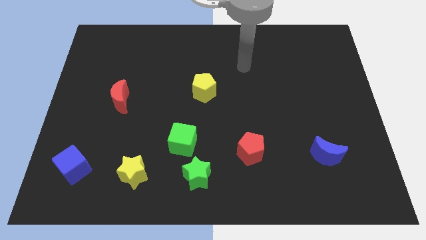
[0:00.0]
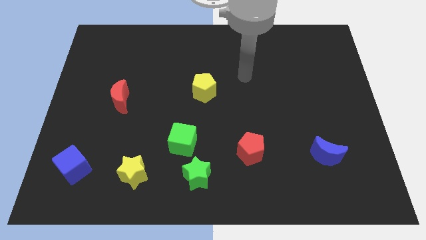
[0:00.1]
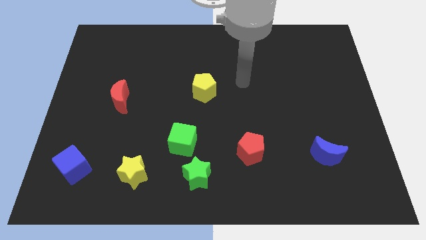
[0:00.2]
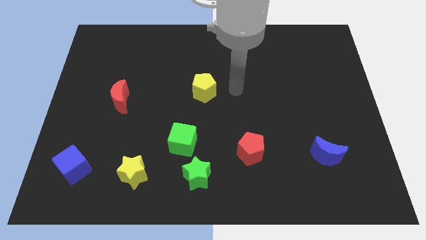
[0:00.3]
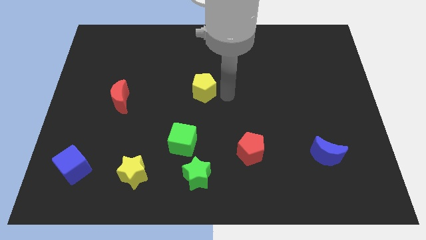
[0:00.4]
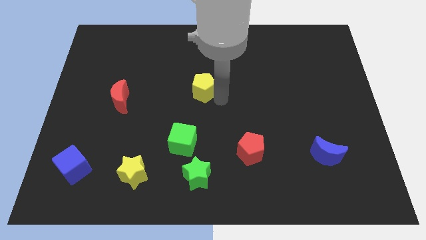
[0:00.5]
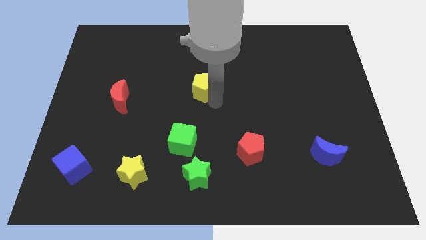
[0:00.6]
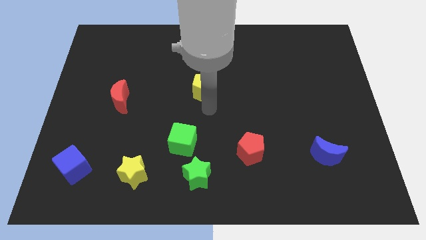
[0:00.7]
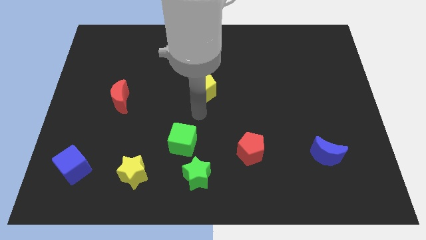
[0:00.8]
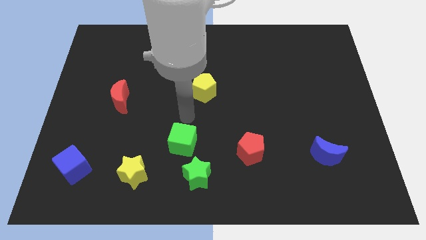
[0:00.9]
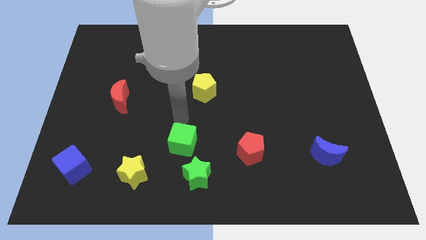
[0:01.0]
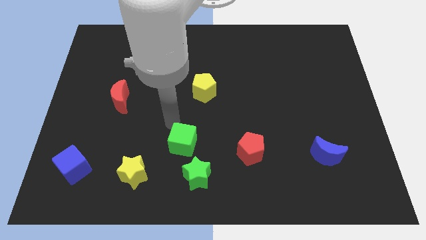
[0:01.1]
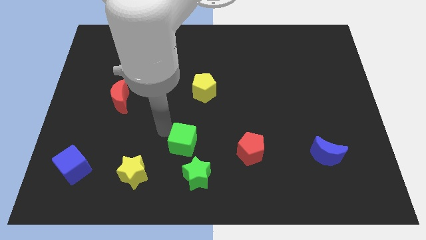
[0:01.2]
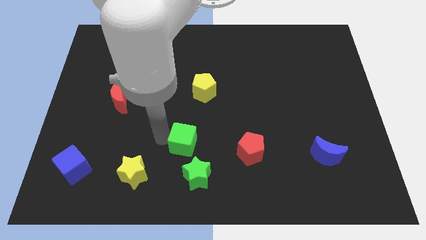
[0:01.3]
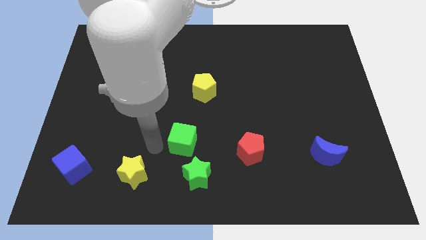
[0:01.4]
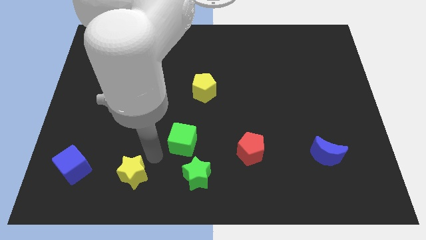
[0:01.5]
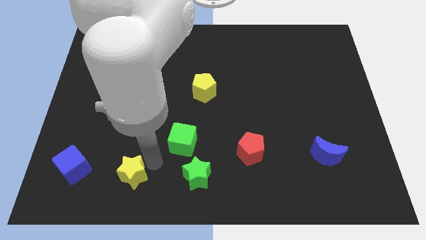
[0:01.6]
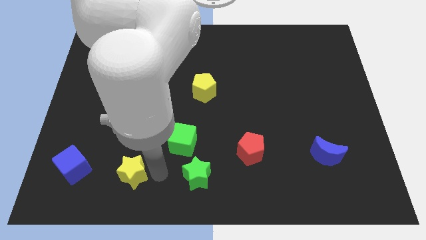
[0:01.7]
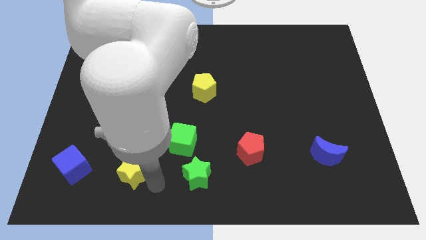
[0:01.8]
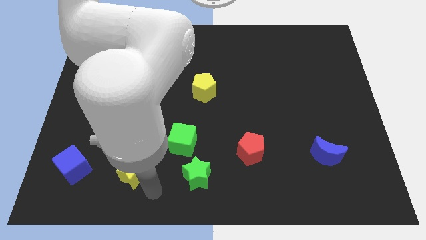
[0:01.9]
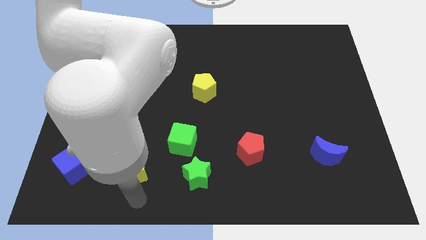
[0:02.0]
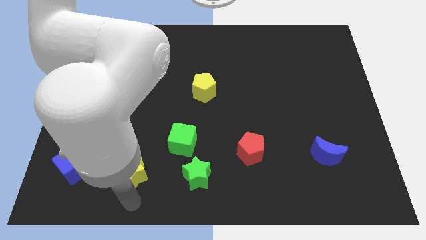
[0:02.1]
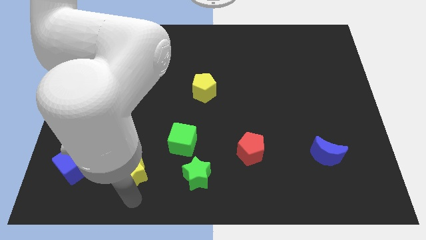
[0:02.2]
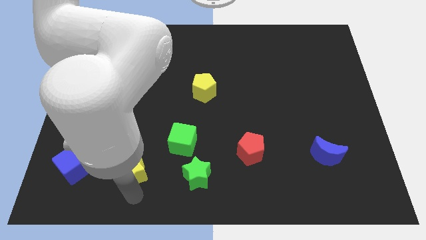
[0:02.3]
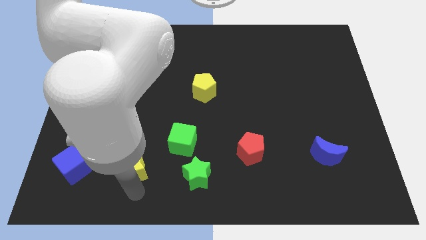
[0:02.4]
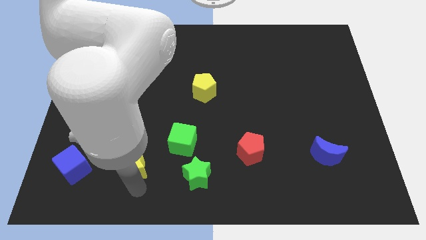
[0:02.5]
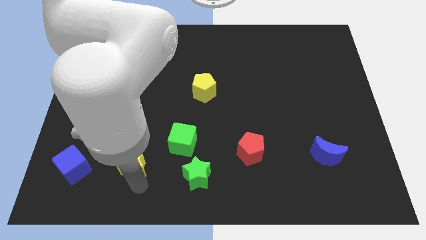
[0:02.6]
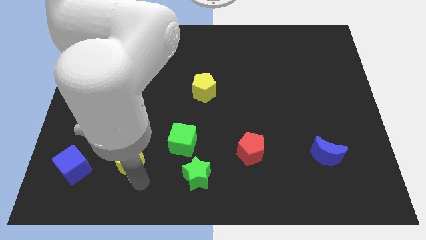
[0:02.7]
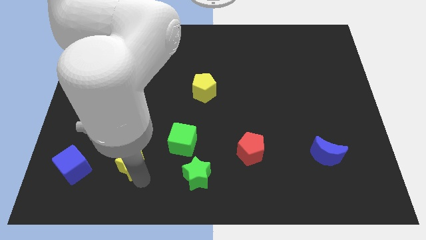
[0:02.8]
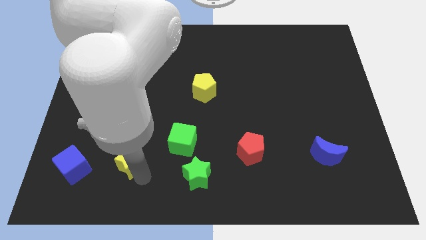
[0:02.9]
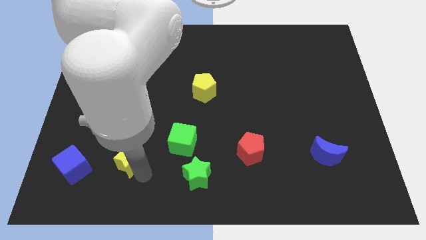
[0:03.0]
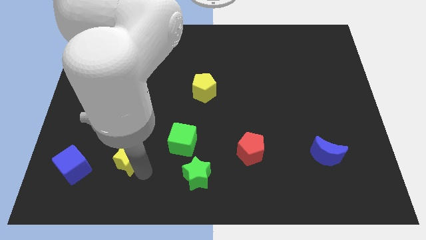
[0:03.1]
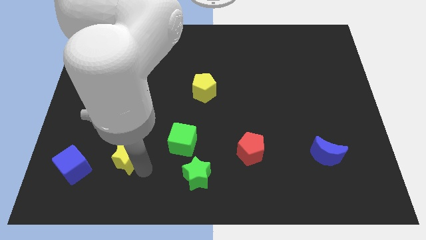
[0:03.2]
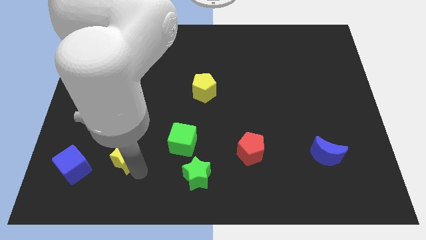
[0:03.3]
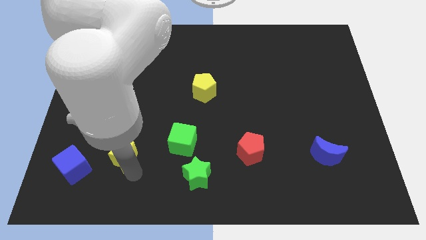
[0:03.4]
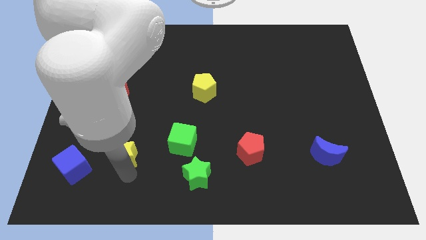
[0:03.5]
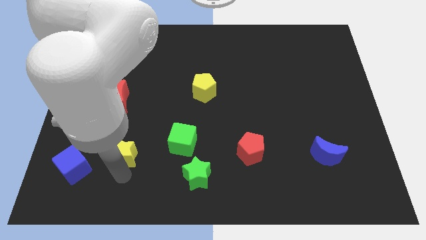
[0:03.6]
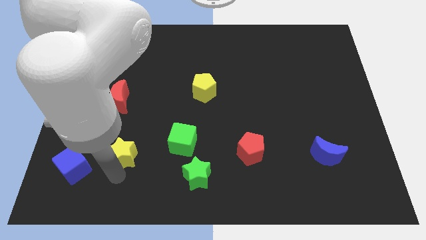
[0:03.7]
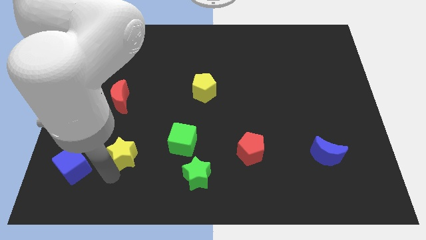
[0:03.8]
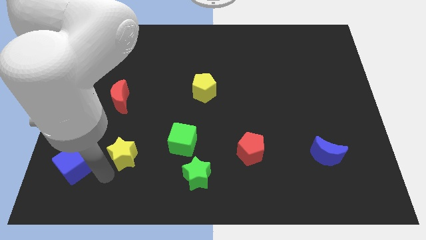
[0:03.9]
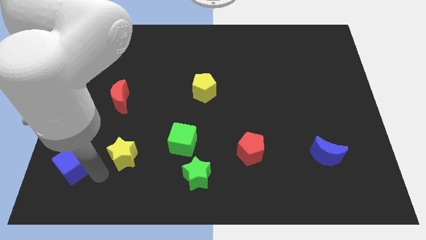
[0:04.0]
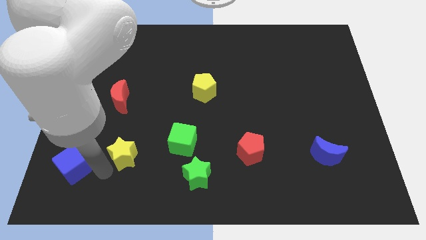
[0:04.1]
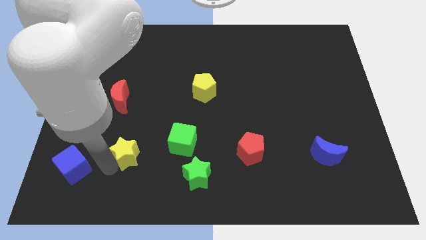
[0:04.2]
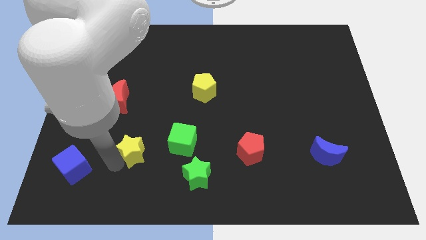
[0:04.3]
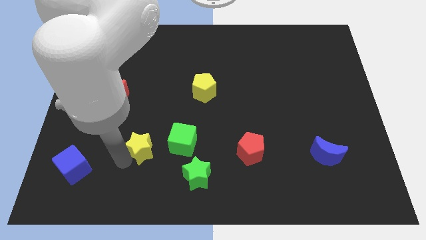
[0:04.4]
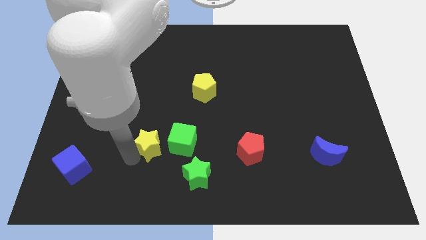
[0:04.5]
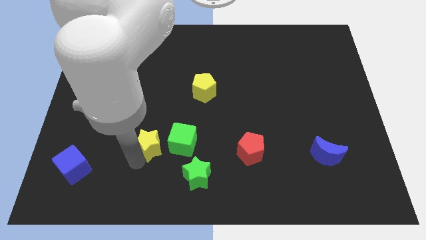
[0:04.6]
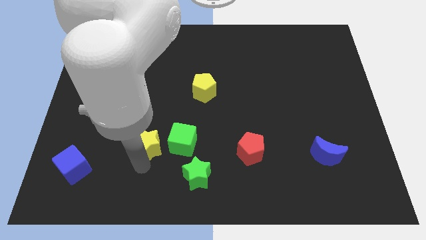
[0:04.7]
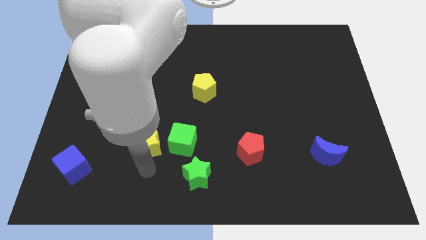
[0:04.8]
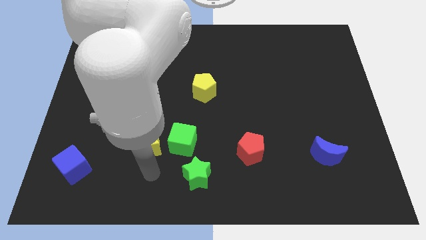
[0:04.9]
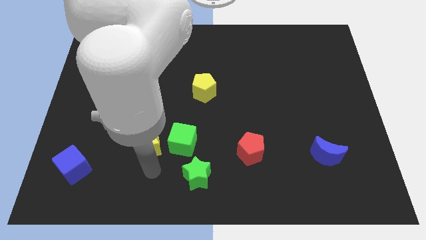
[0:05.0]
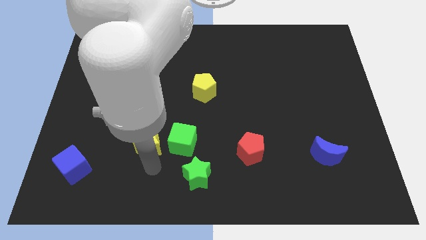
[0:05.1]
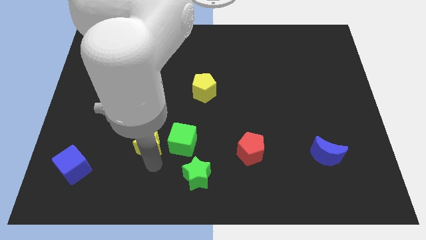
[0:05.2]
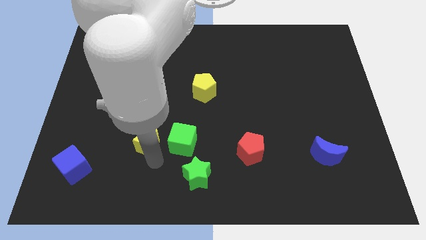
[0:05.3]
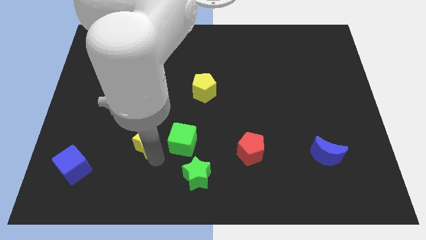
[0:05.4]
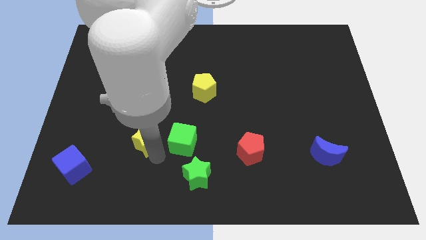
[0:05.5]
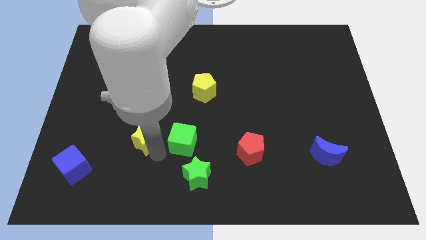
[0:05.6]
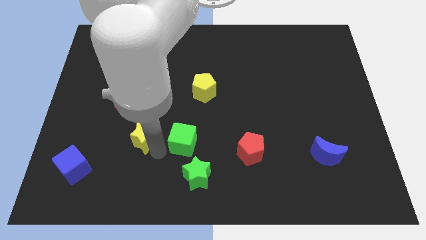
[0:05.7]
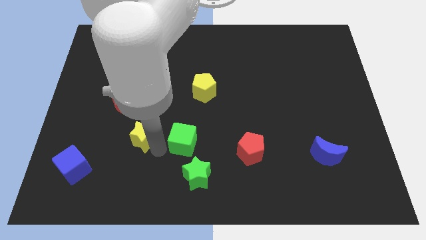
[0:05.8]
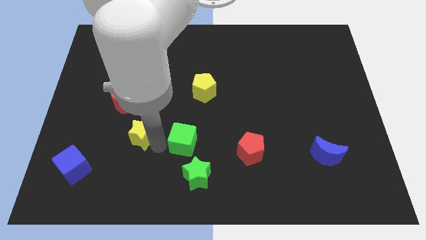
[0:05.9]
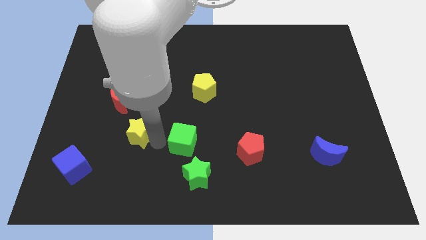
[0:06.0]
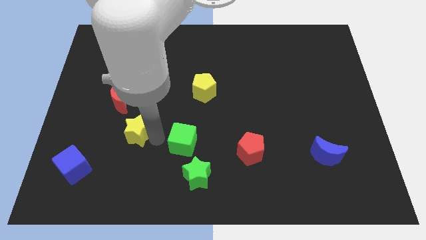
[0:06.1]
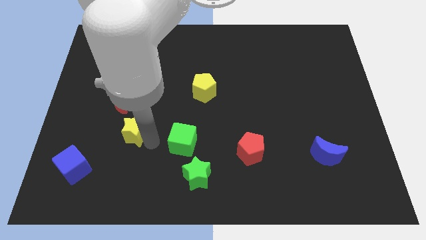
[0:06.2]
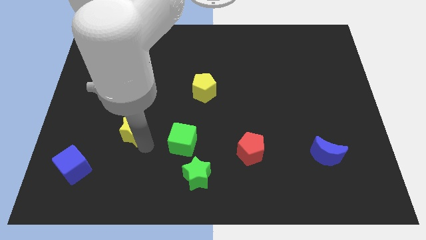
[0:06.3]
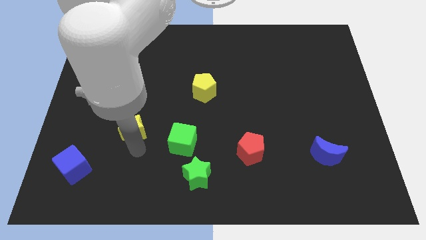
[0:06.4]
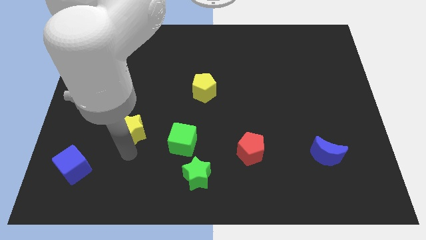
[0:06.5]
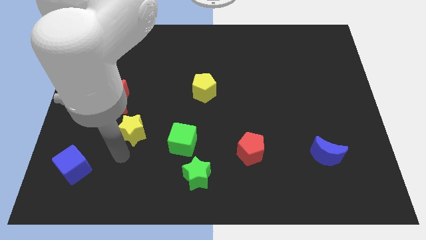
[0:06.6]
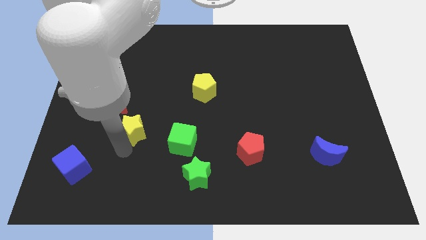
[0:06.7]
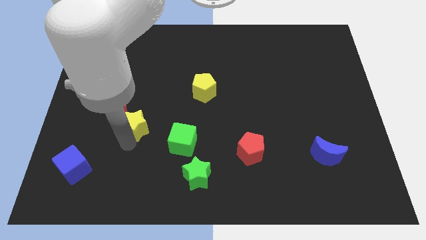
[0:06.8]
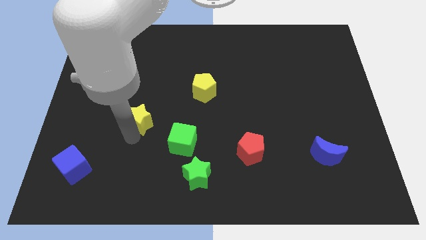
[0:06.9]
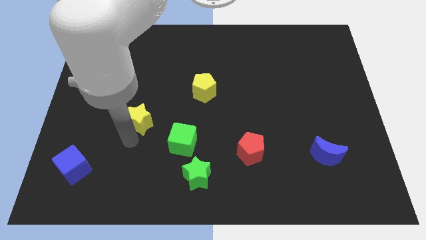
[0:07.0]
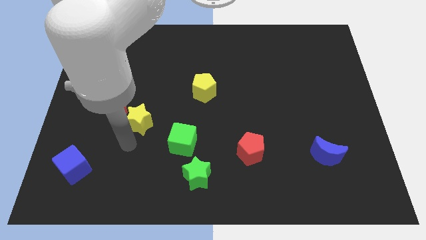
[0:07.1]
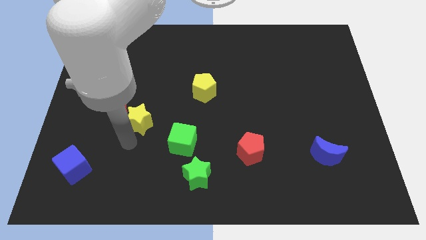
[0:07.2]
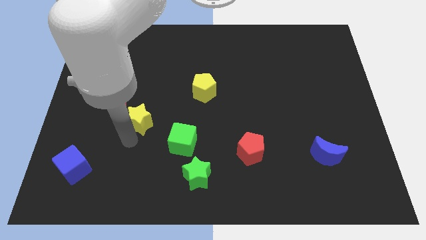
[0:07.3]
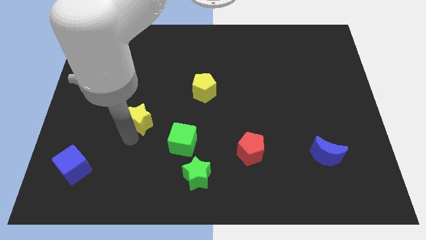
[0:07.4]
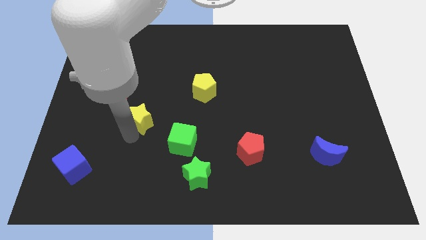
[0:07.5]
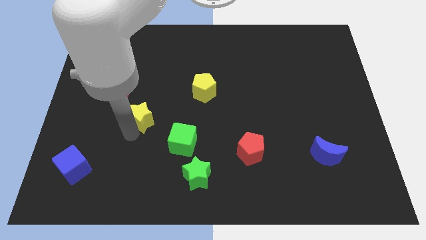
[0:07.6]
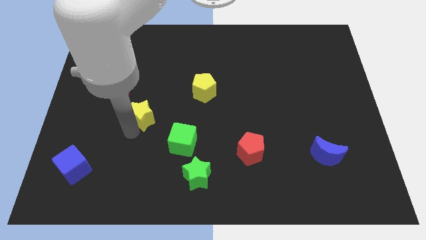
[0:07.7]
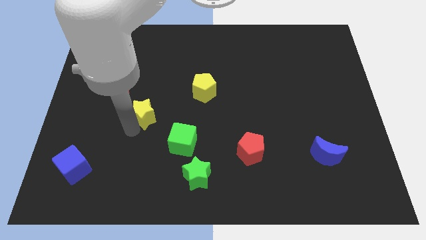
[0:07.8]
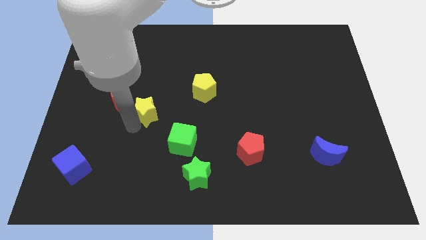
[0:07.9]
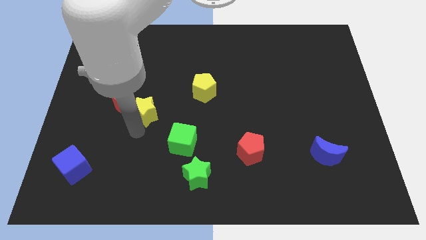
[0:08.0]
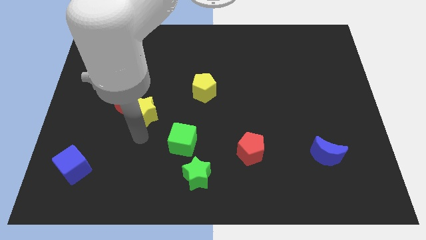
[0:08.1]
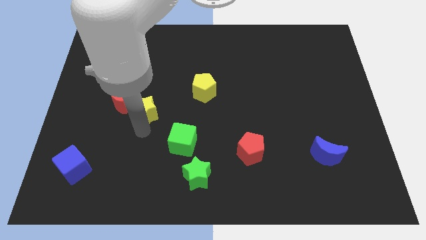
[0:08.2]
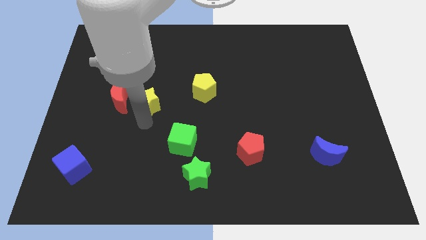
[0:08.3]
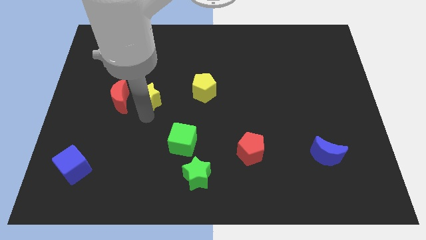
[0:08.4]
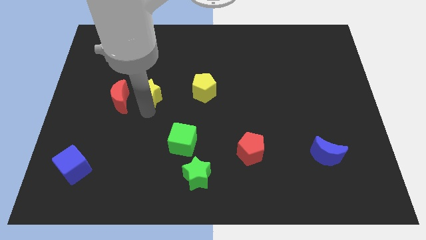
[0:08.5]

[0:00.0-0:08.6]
move the yellow star upwards
